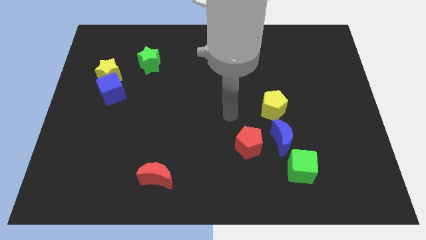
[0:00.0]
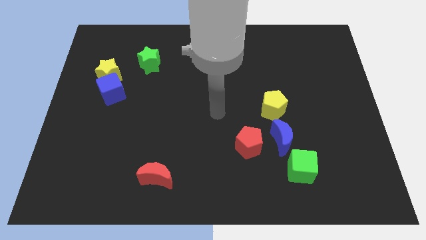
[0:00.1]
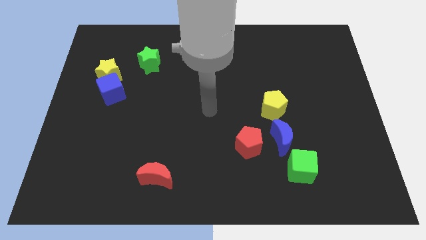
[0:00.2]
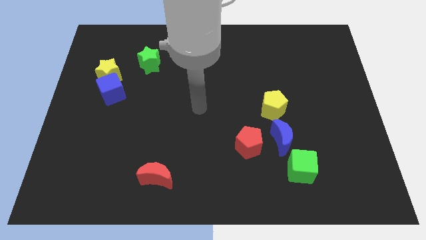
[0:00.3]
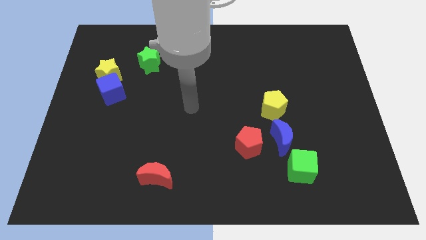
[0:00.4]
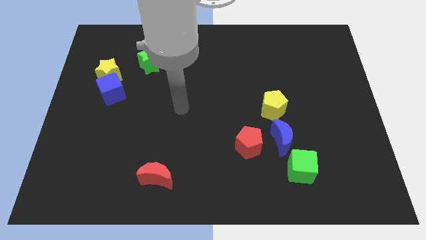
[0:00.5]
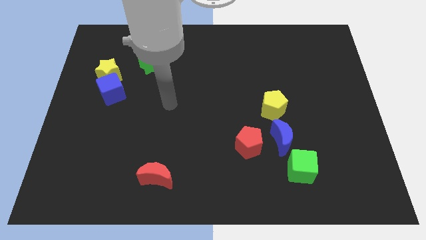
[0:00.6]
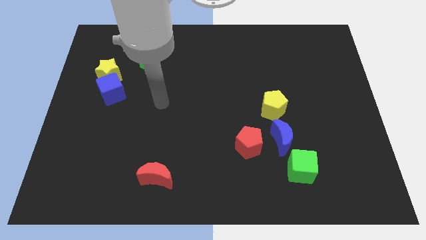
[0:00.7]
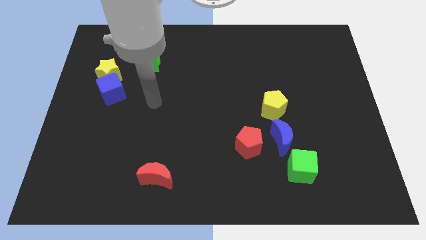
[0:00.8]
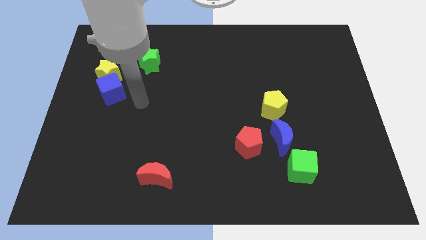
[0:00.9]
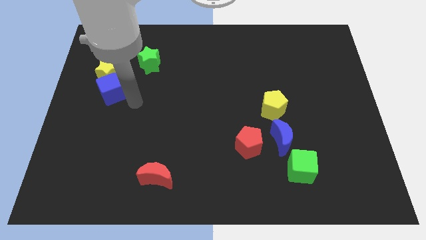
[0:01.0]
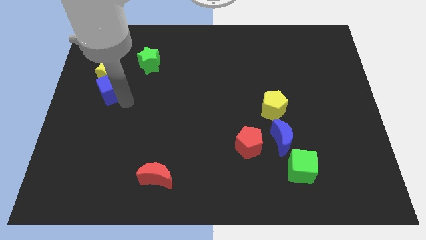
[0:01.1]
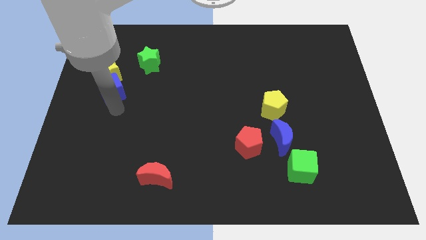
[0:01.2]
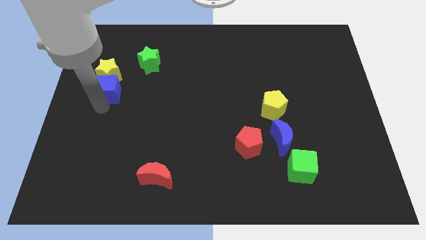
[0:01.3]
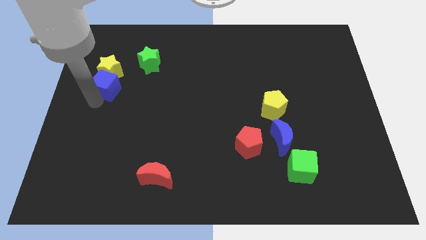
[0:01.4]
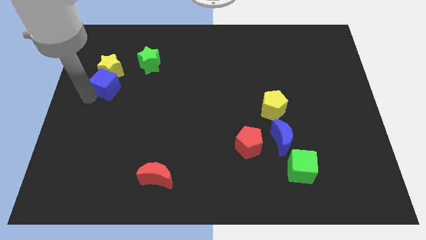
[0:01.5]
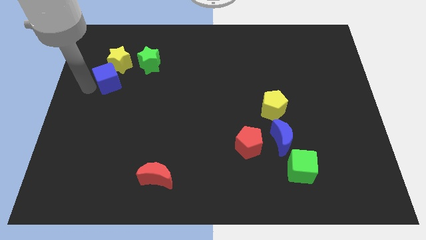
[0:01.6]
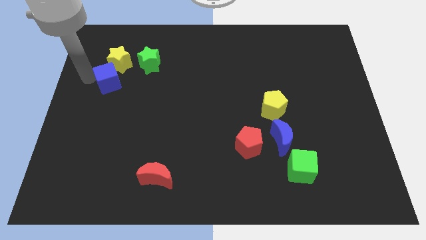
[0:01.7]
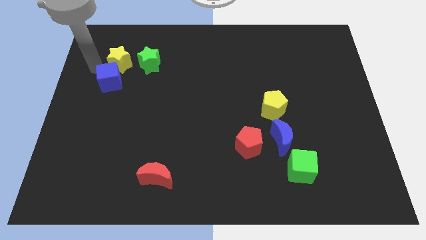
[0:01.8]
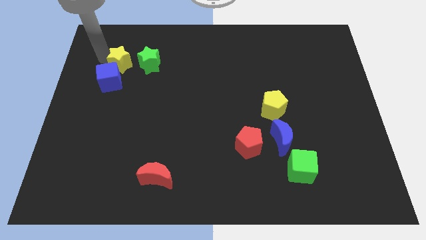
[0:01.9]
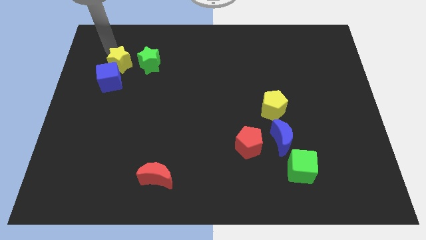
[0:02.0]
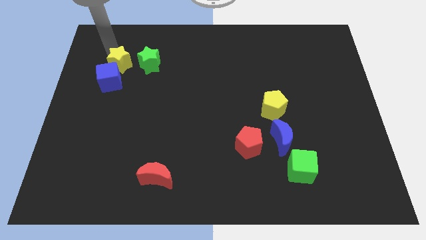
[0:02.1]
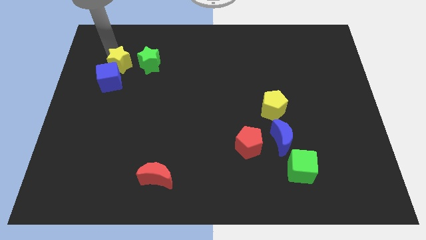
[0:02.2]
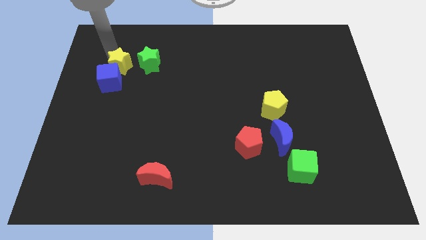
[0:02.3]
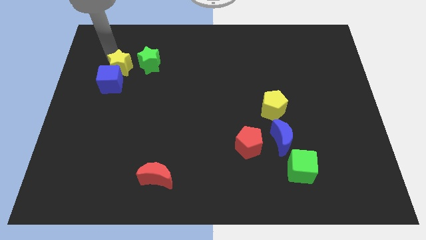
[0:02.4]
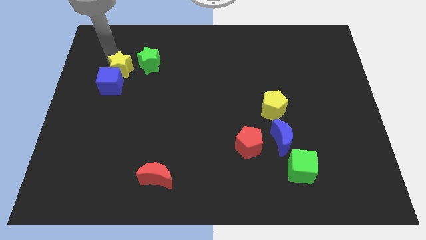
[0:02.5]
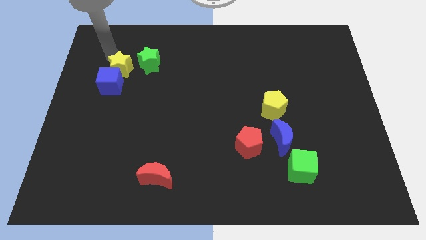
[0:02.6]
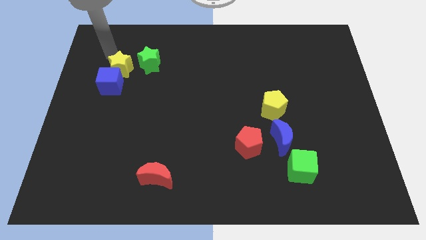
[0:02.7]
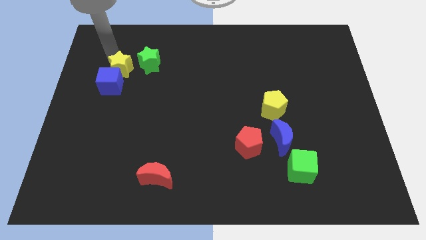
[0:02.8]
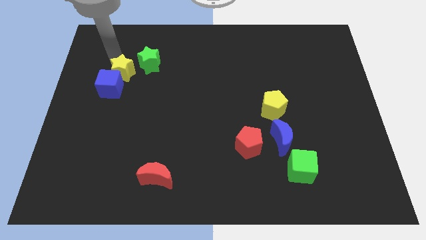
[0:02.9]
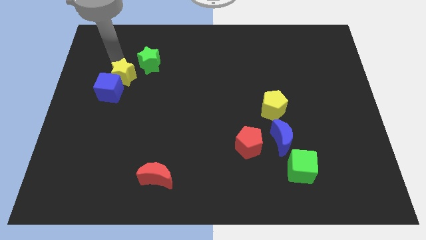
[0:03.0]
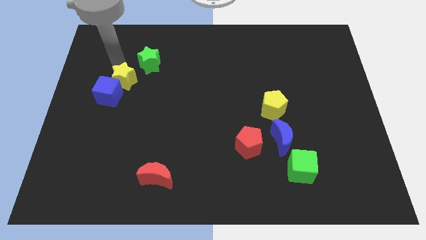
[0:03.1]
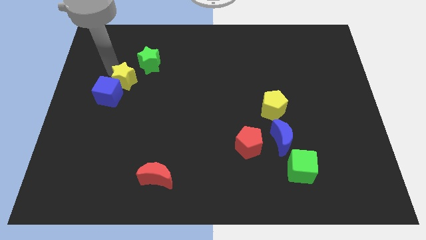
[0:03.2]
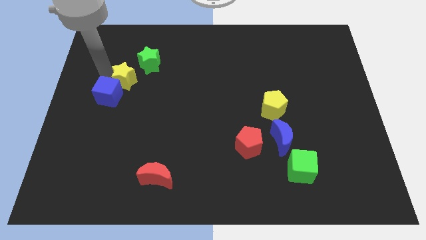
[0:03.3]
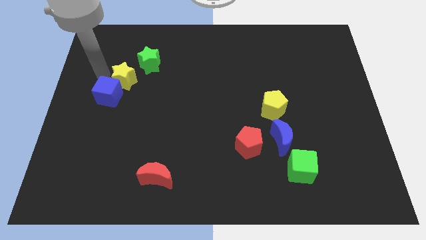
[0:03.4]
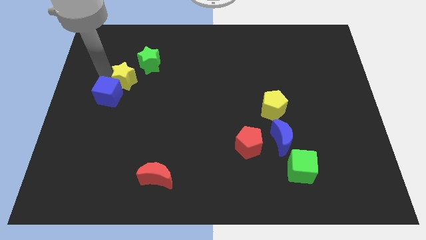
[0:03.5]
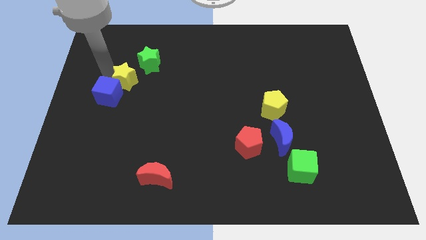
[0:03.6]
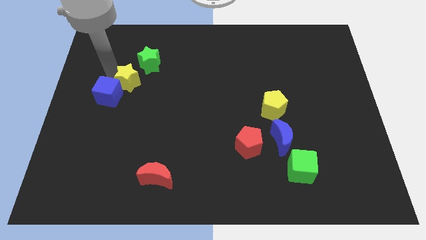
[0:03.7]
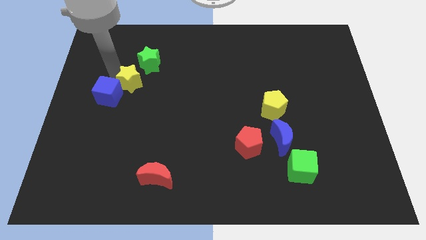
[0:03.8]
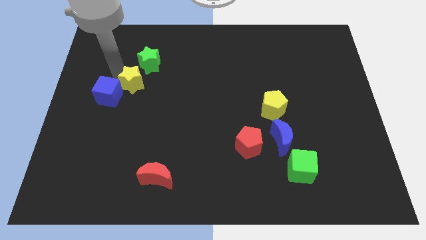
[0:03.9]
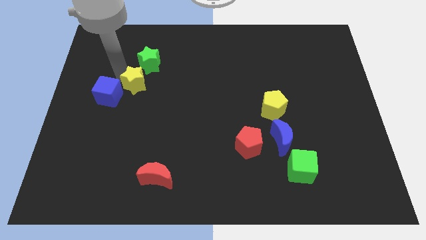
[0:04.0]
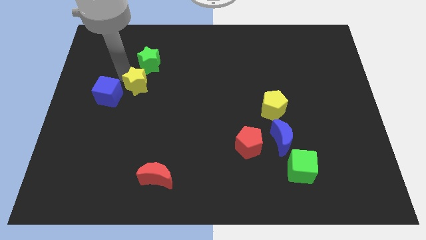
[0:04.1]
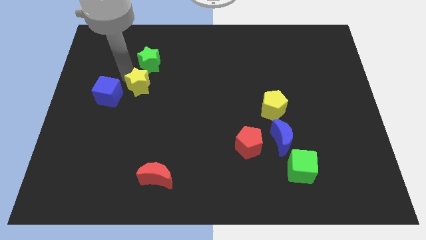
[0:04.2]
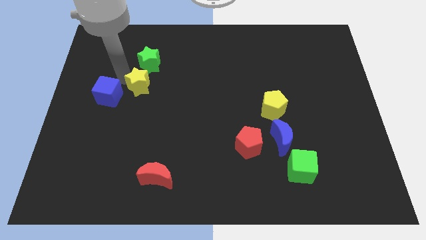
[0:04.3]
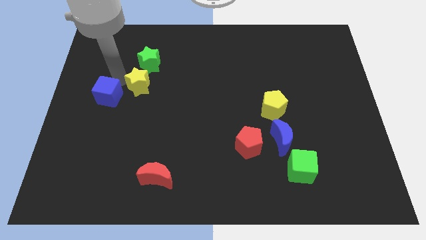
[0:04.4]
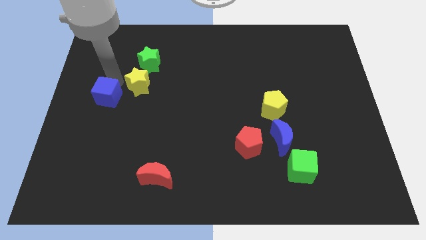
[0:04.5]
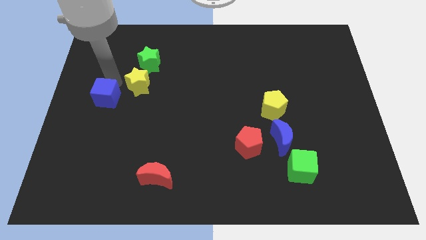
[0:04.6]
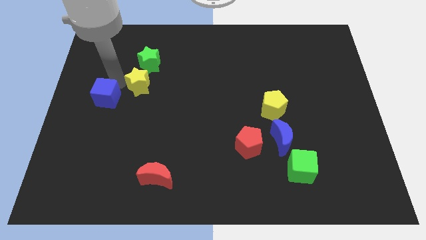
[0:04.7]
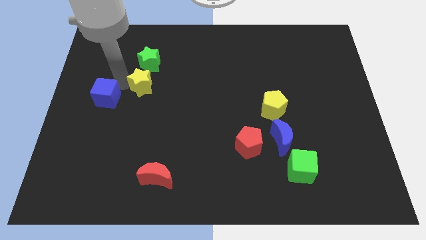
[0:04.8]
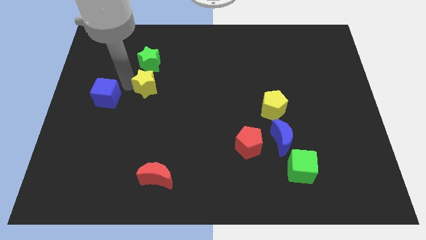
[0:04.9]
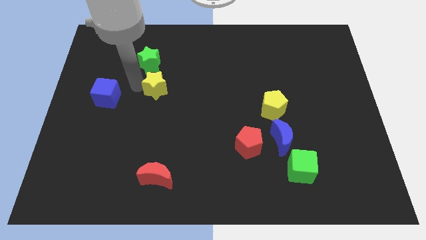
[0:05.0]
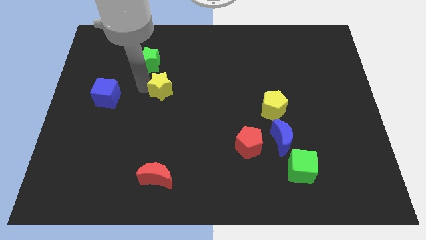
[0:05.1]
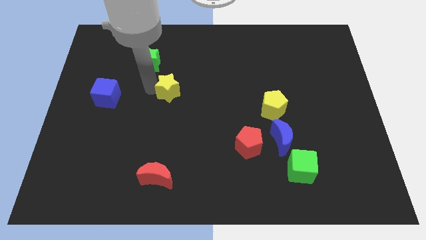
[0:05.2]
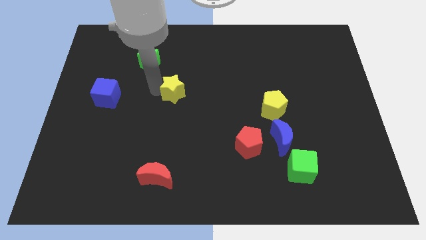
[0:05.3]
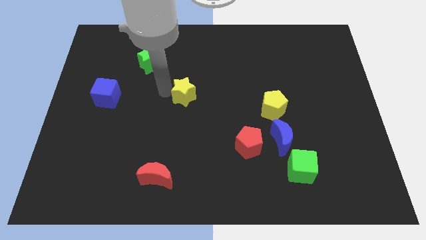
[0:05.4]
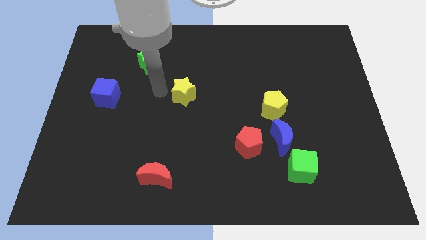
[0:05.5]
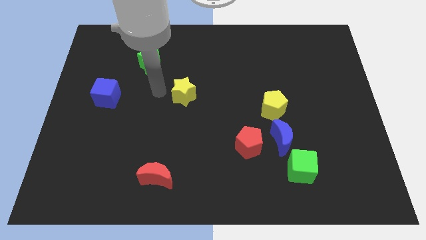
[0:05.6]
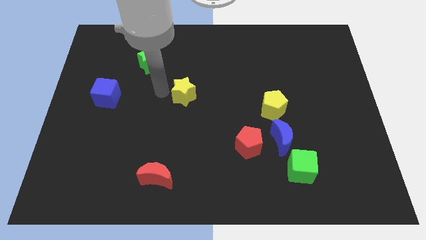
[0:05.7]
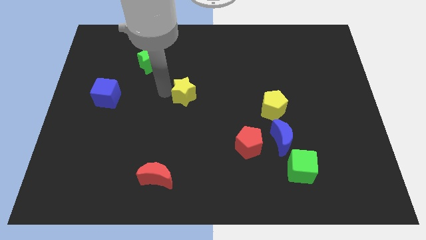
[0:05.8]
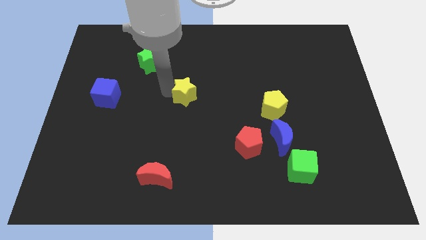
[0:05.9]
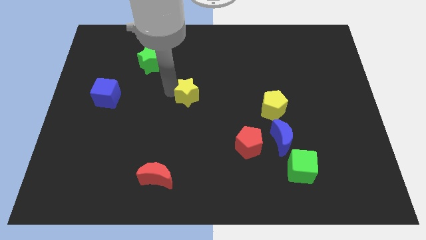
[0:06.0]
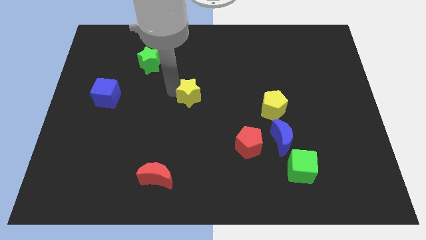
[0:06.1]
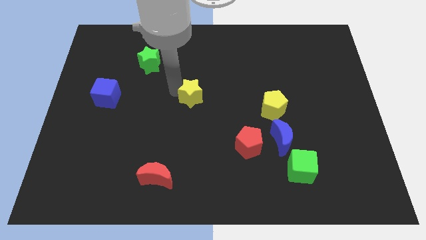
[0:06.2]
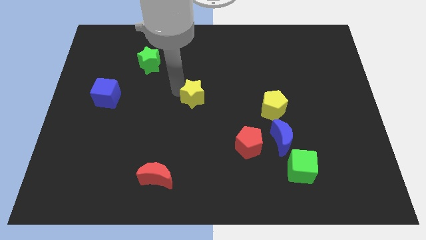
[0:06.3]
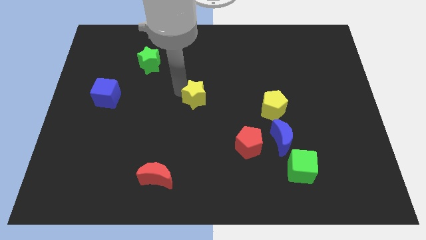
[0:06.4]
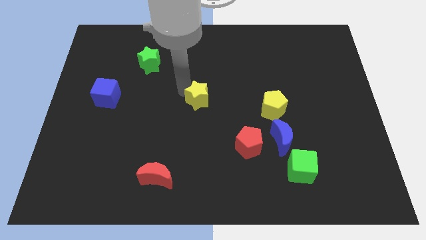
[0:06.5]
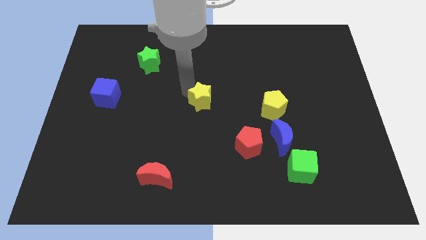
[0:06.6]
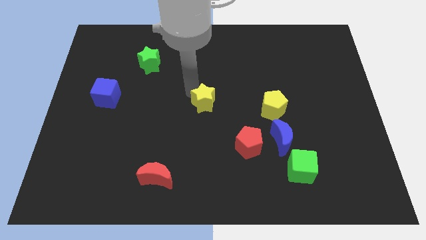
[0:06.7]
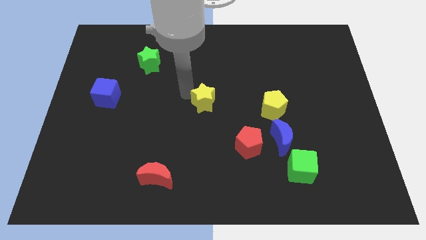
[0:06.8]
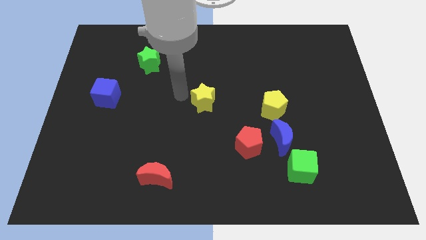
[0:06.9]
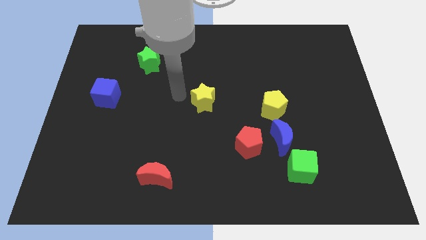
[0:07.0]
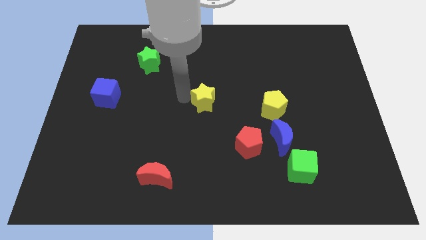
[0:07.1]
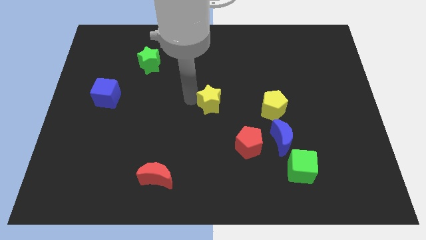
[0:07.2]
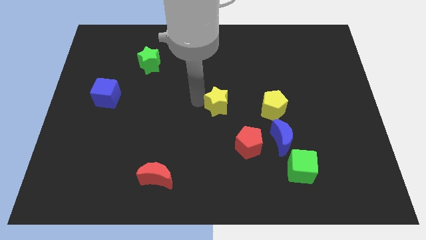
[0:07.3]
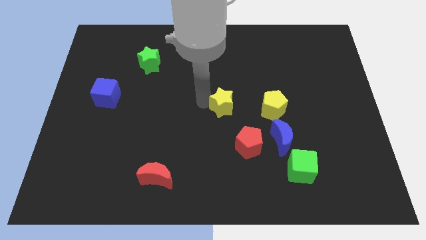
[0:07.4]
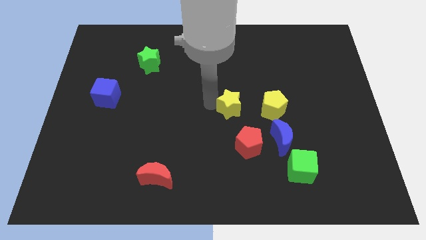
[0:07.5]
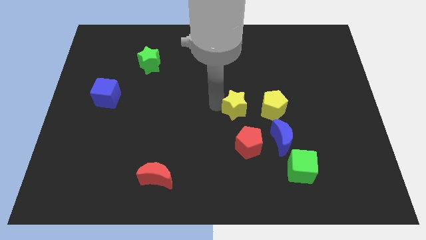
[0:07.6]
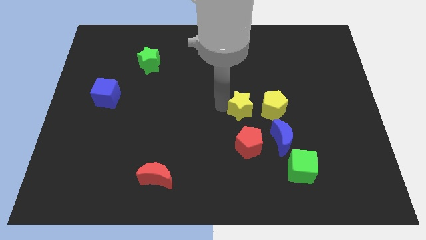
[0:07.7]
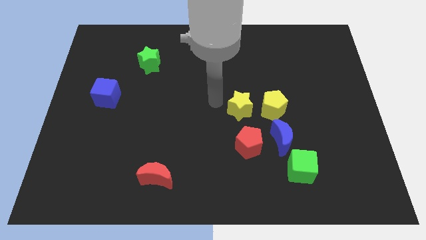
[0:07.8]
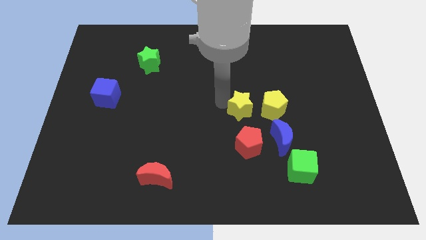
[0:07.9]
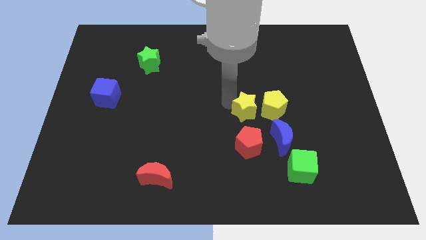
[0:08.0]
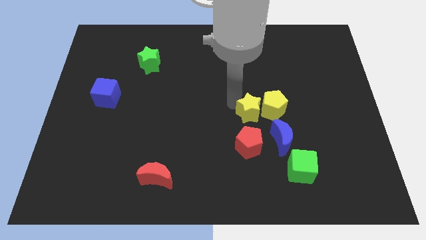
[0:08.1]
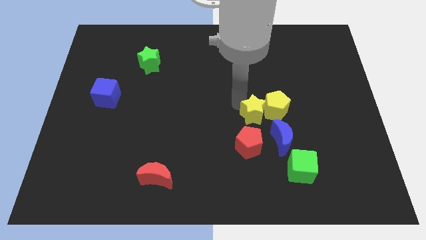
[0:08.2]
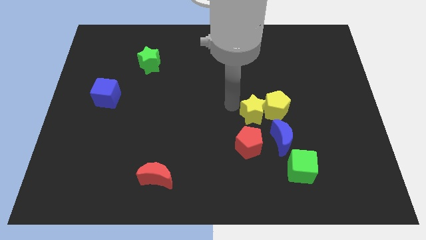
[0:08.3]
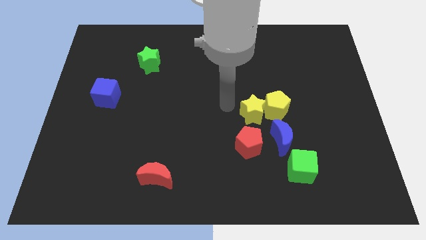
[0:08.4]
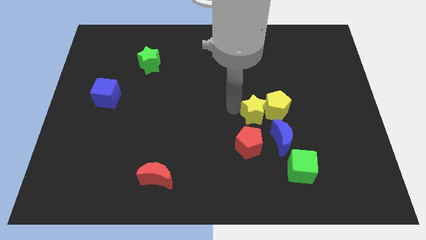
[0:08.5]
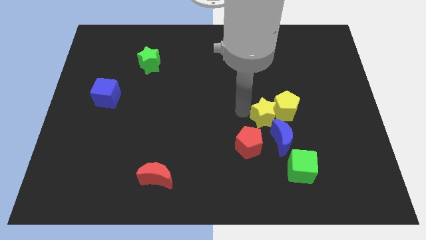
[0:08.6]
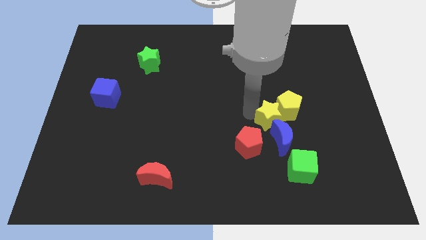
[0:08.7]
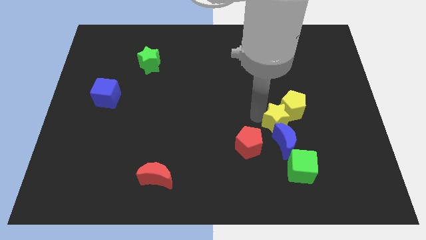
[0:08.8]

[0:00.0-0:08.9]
push the yellow star above the green cube
